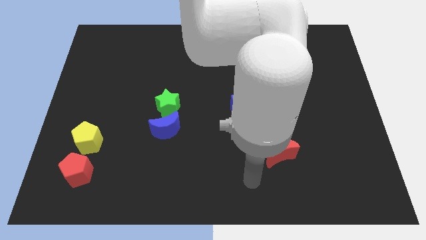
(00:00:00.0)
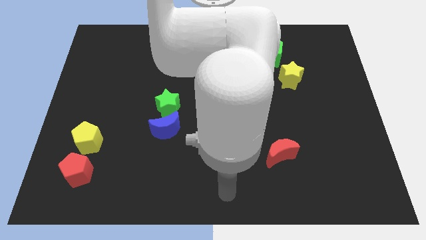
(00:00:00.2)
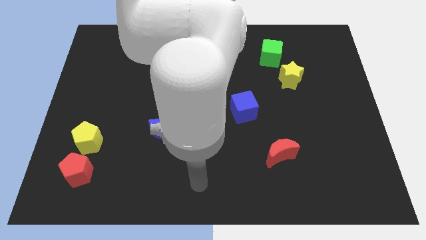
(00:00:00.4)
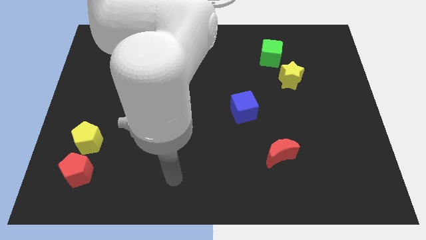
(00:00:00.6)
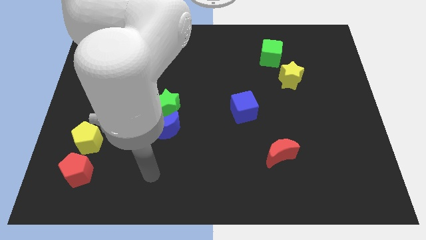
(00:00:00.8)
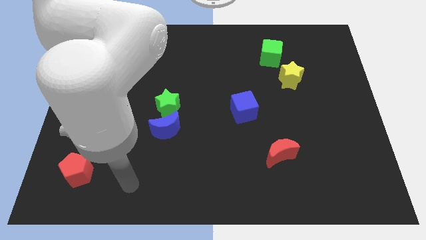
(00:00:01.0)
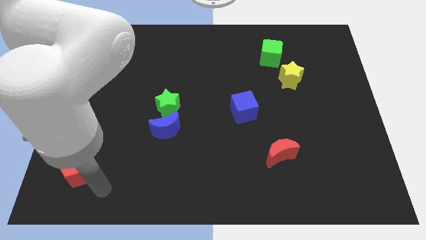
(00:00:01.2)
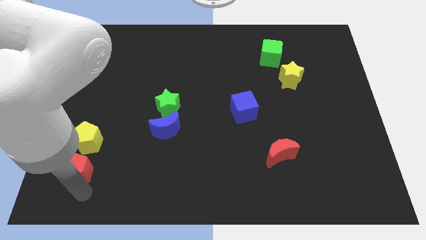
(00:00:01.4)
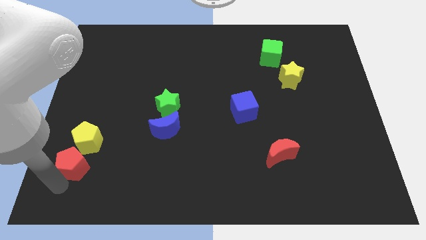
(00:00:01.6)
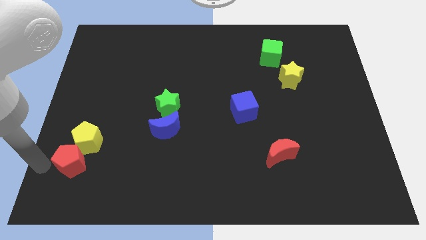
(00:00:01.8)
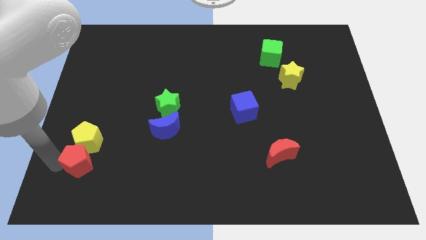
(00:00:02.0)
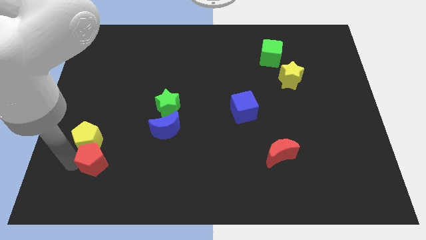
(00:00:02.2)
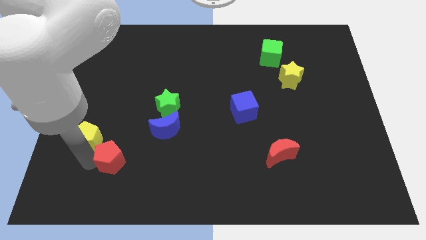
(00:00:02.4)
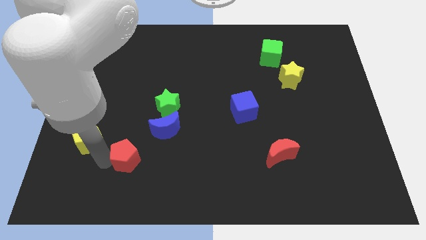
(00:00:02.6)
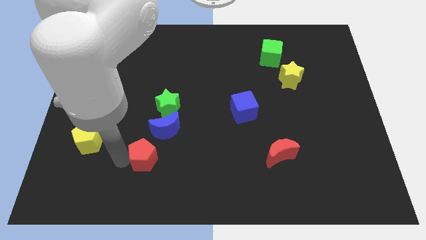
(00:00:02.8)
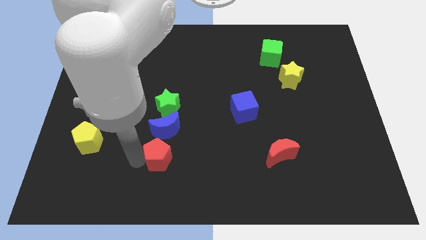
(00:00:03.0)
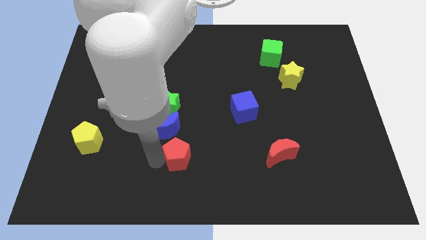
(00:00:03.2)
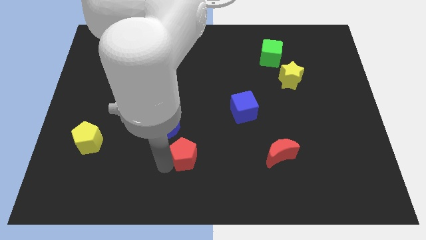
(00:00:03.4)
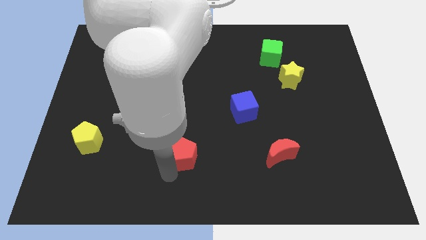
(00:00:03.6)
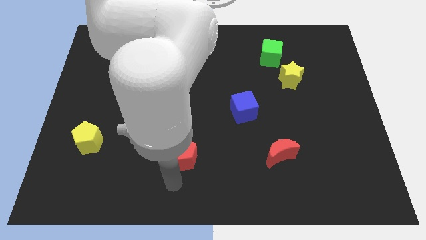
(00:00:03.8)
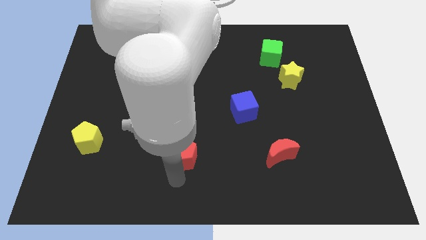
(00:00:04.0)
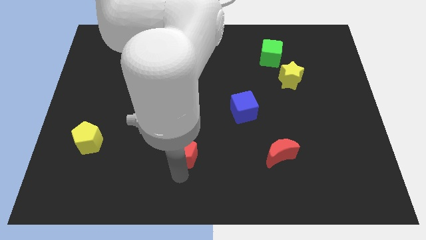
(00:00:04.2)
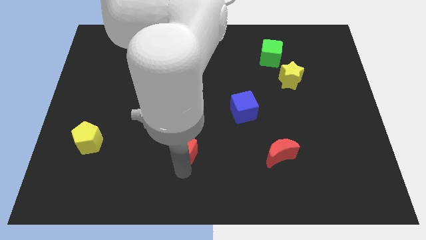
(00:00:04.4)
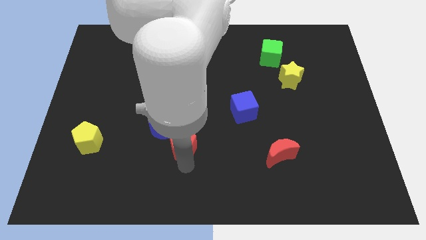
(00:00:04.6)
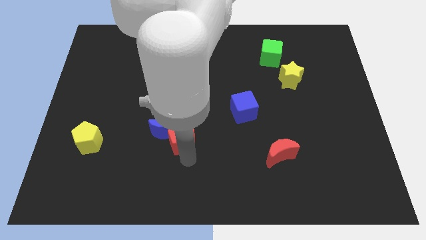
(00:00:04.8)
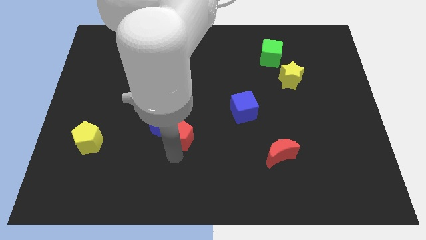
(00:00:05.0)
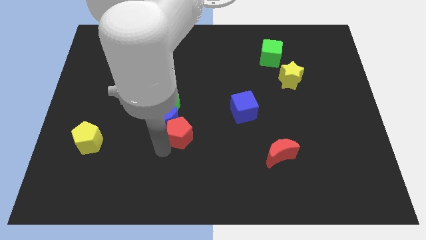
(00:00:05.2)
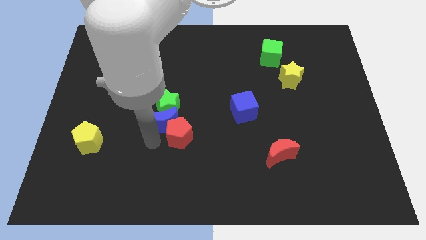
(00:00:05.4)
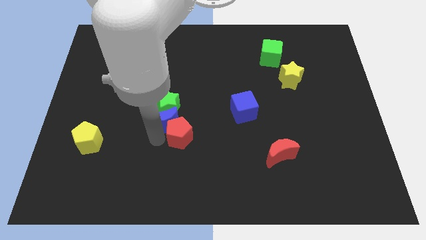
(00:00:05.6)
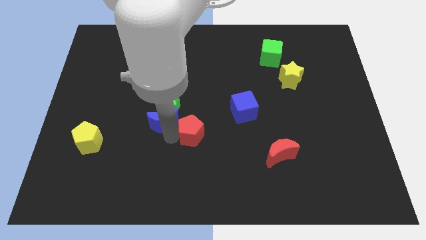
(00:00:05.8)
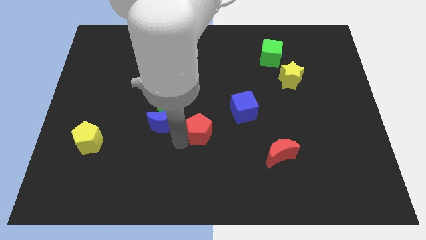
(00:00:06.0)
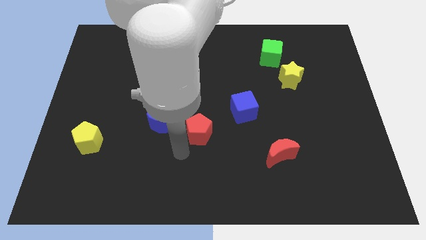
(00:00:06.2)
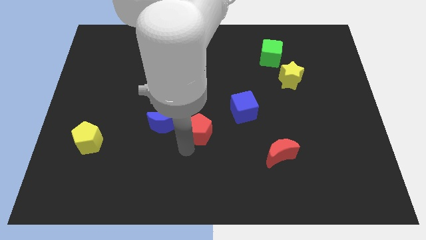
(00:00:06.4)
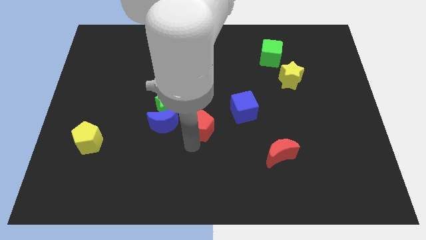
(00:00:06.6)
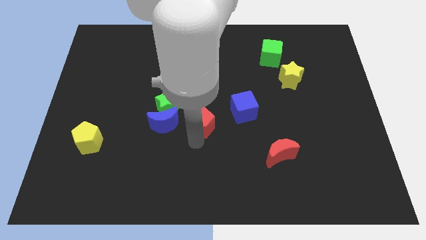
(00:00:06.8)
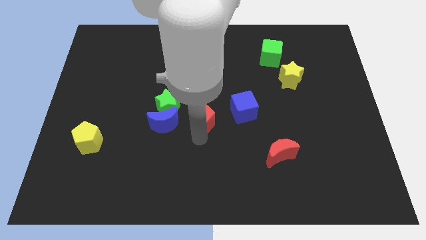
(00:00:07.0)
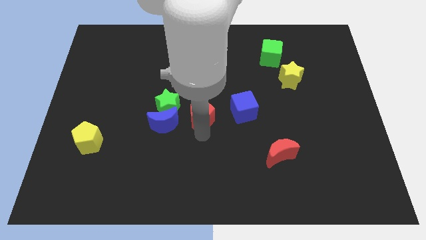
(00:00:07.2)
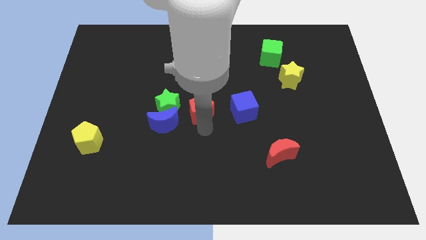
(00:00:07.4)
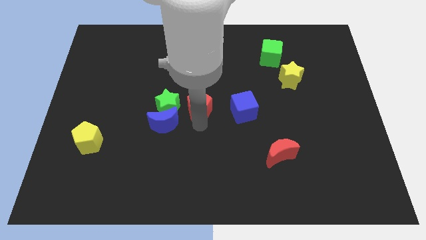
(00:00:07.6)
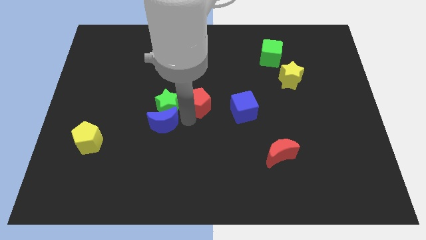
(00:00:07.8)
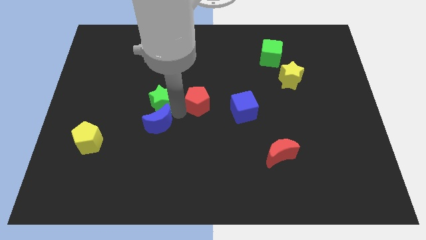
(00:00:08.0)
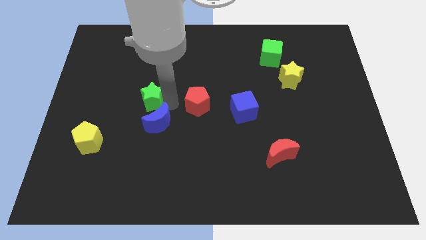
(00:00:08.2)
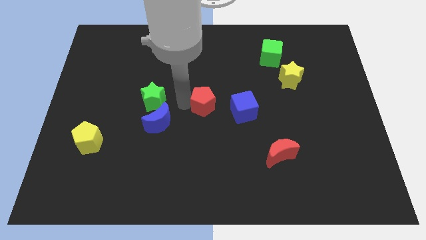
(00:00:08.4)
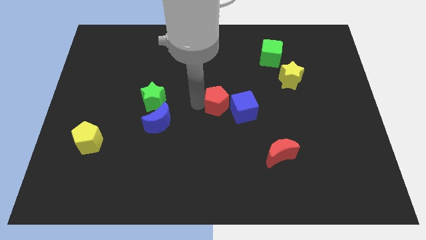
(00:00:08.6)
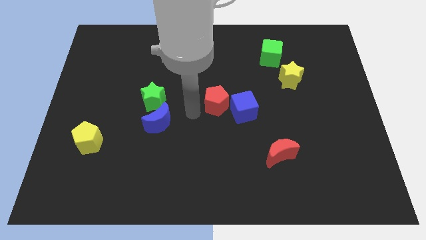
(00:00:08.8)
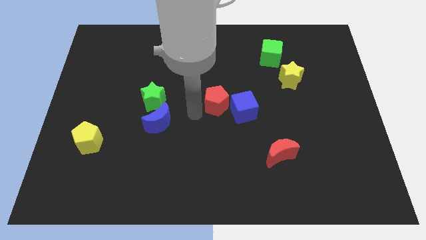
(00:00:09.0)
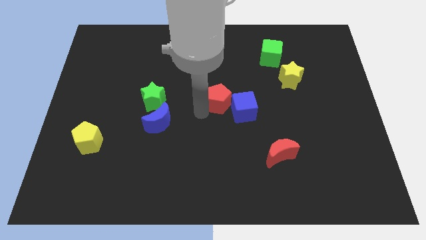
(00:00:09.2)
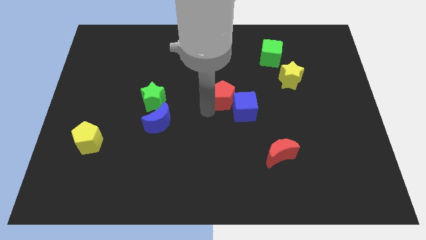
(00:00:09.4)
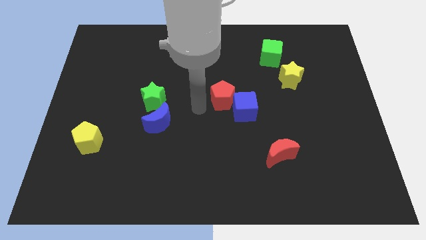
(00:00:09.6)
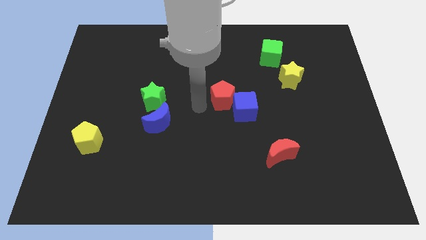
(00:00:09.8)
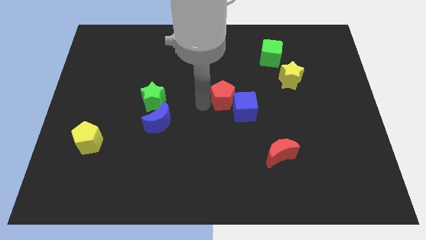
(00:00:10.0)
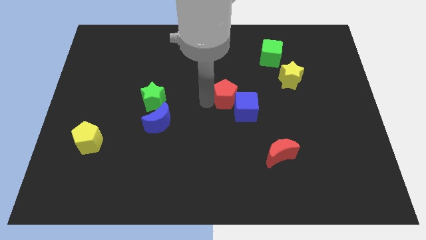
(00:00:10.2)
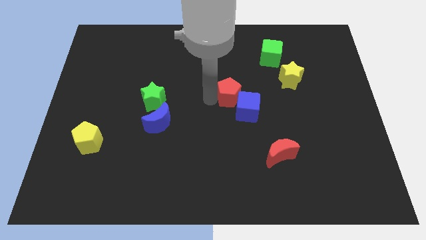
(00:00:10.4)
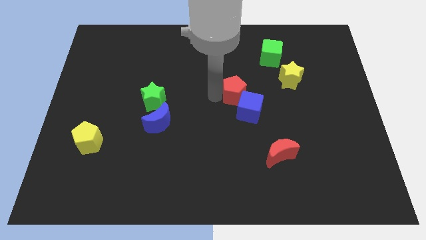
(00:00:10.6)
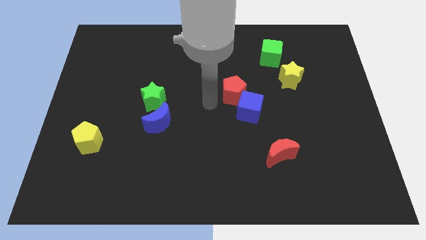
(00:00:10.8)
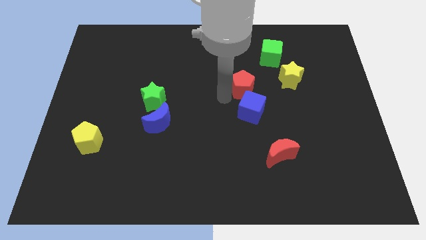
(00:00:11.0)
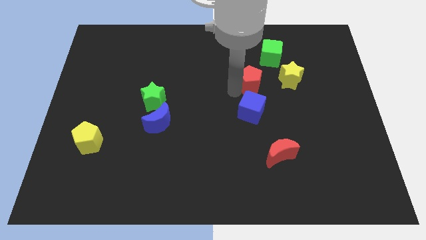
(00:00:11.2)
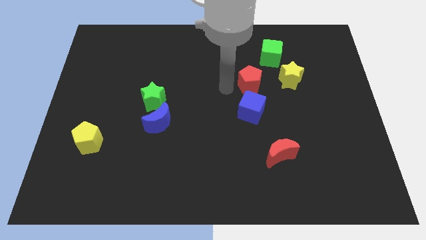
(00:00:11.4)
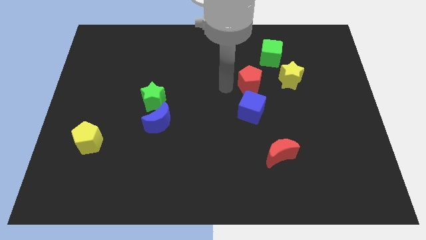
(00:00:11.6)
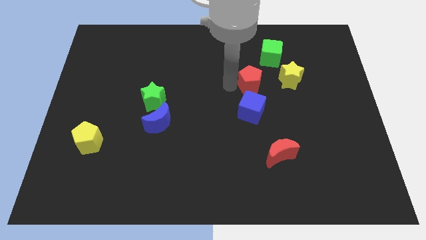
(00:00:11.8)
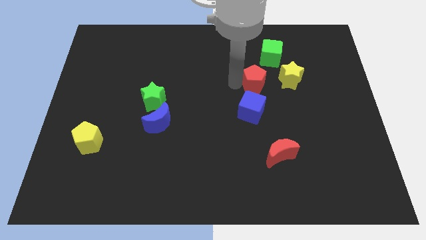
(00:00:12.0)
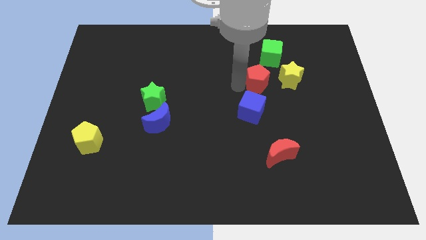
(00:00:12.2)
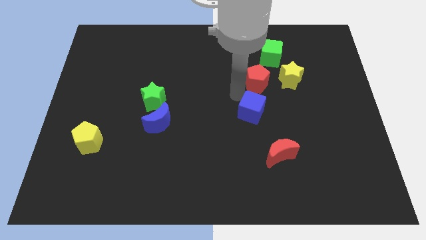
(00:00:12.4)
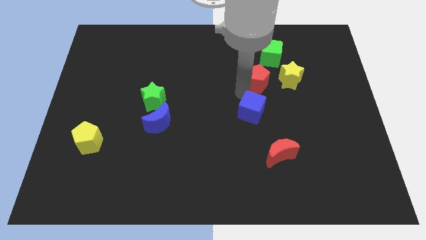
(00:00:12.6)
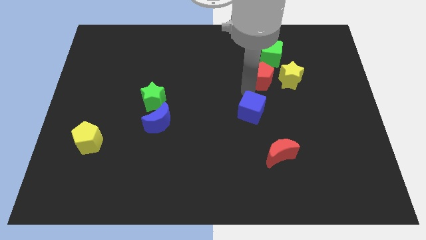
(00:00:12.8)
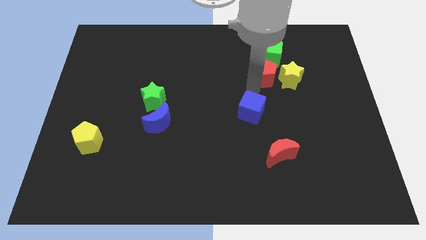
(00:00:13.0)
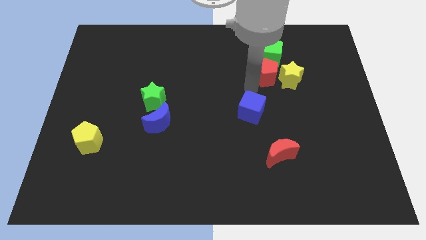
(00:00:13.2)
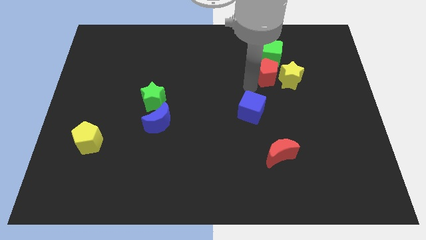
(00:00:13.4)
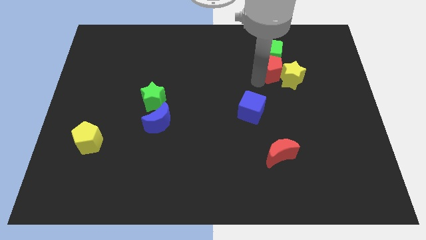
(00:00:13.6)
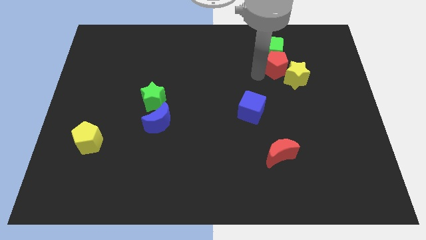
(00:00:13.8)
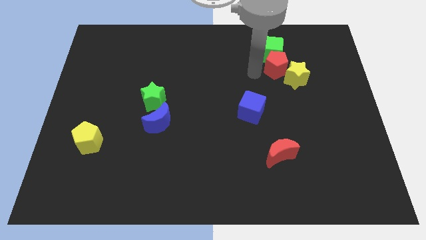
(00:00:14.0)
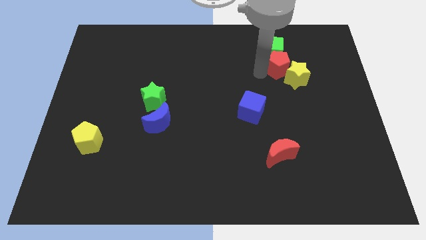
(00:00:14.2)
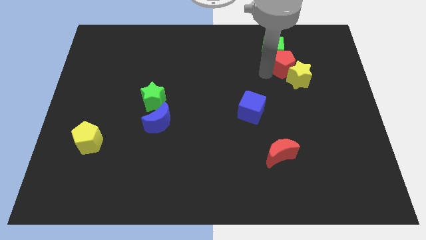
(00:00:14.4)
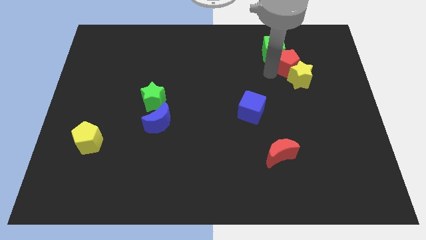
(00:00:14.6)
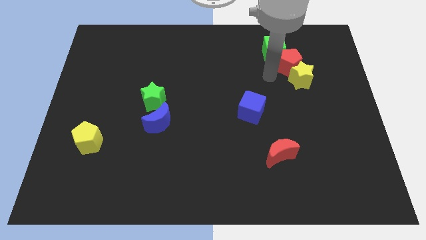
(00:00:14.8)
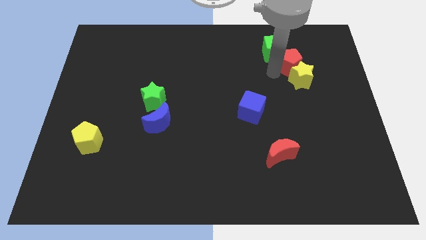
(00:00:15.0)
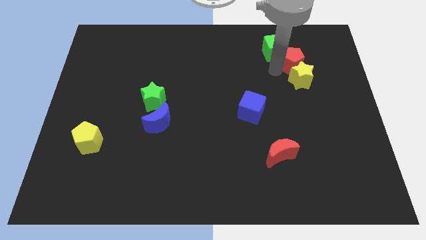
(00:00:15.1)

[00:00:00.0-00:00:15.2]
put the red pentagon to the right of the green cube
